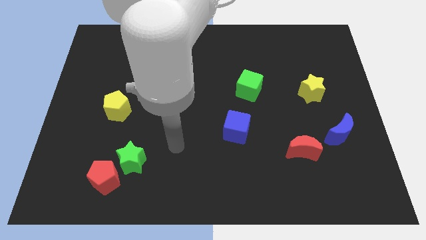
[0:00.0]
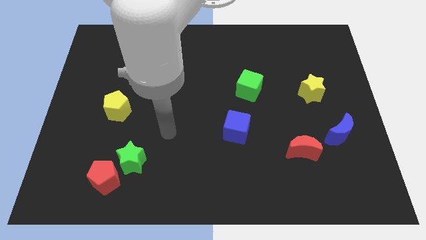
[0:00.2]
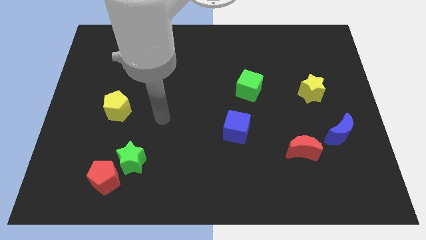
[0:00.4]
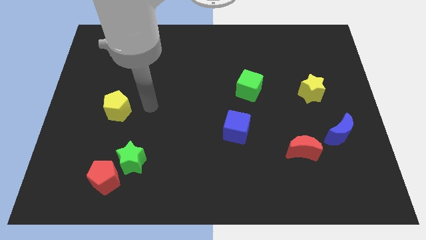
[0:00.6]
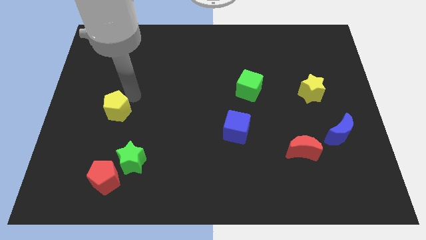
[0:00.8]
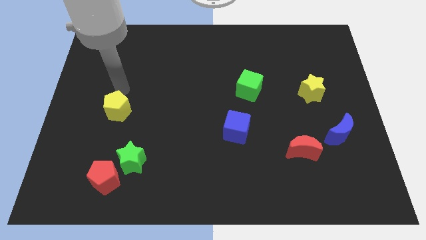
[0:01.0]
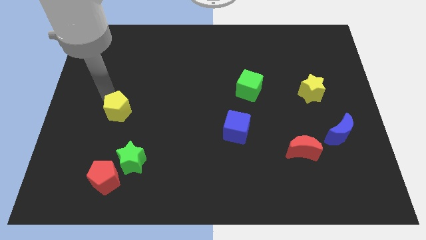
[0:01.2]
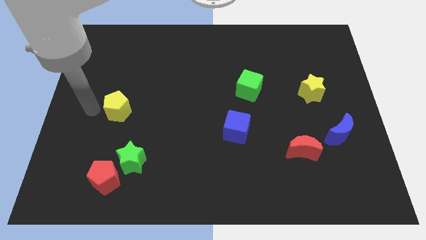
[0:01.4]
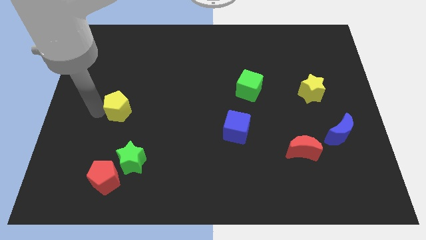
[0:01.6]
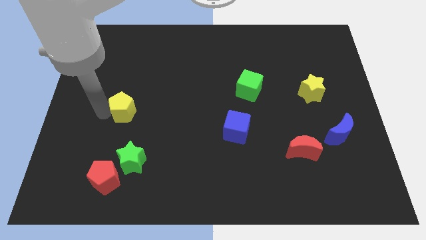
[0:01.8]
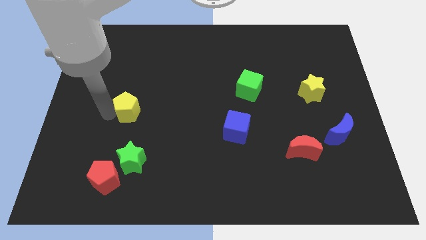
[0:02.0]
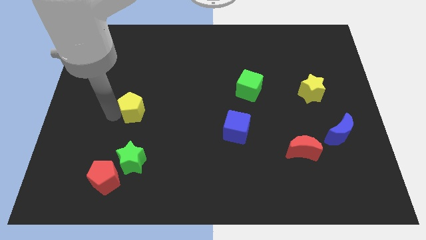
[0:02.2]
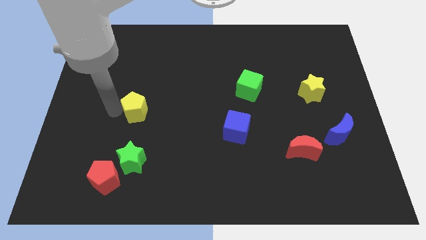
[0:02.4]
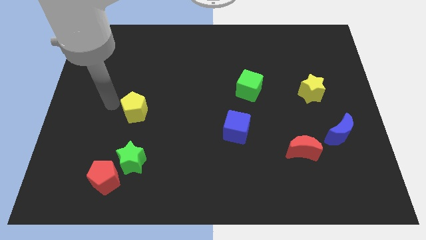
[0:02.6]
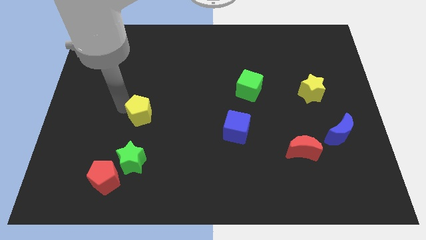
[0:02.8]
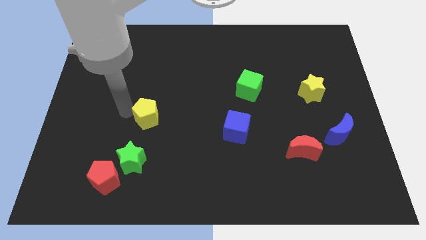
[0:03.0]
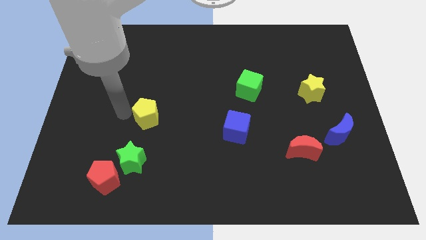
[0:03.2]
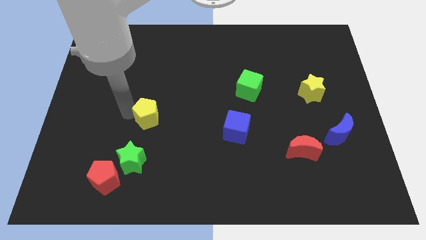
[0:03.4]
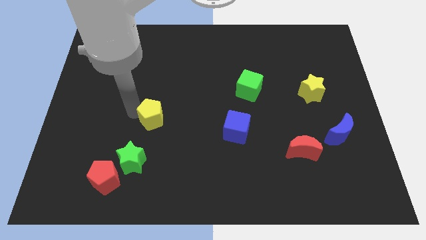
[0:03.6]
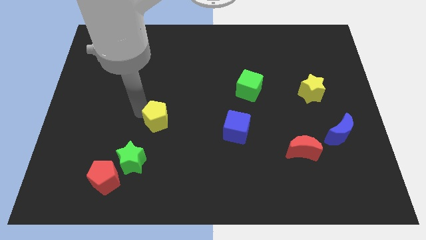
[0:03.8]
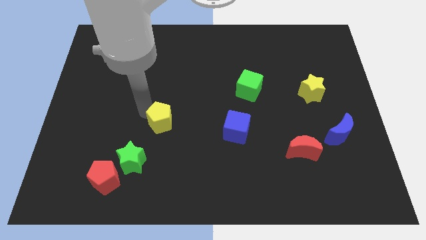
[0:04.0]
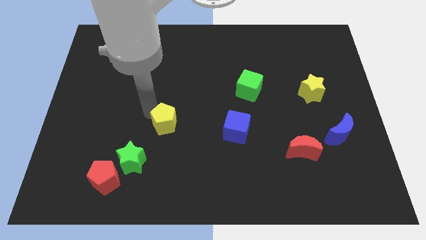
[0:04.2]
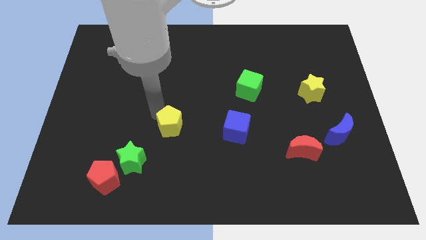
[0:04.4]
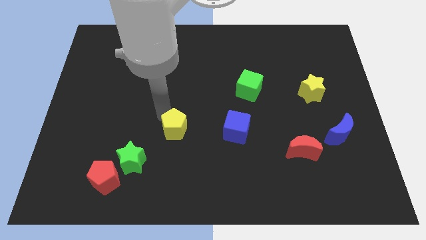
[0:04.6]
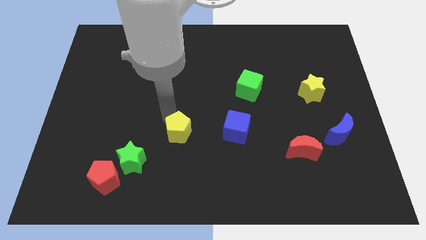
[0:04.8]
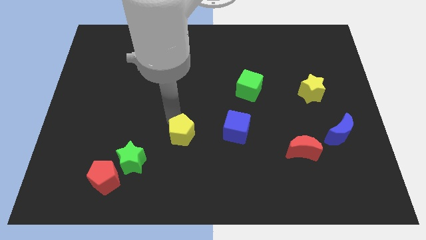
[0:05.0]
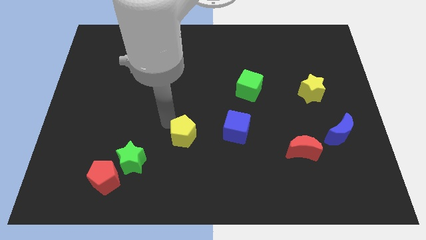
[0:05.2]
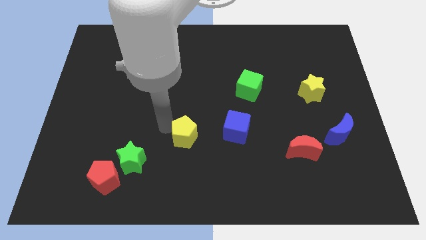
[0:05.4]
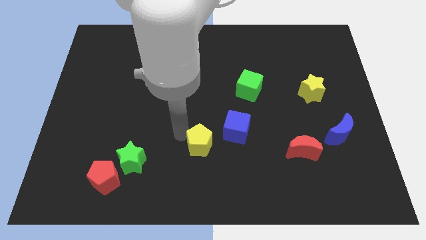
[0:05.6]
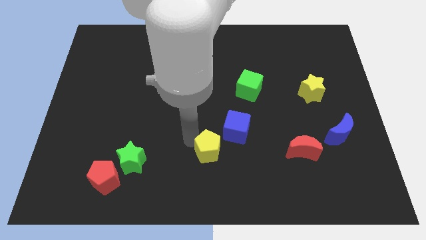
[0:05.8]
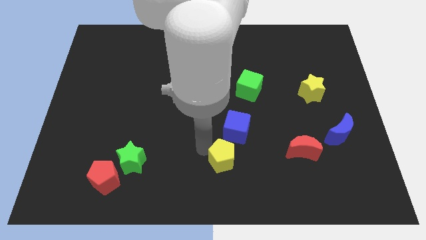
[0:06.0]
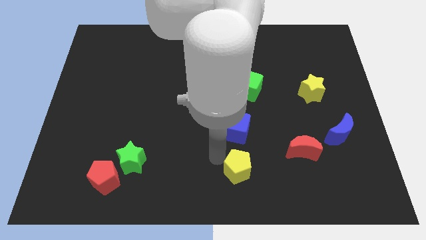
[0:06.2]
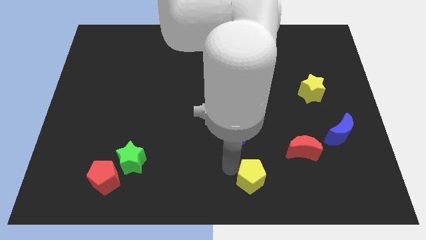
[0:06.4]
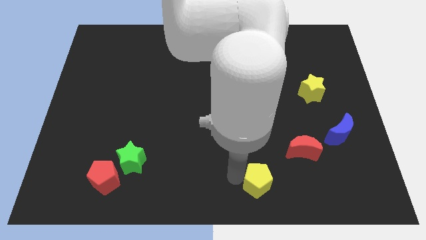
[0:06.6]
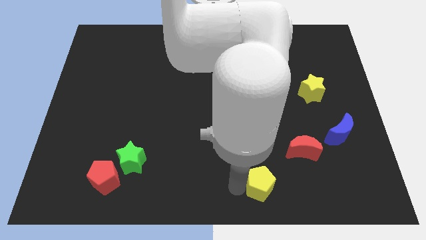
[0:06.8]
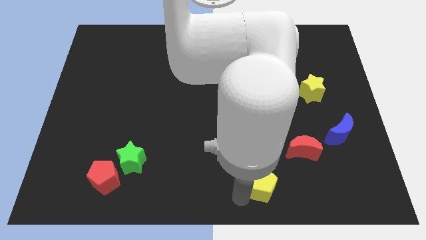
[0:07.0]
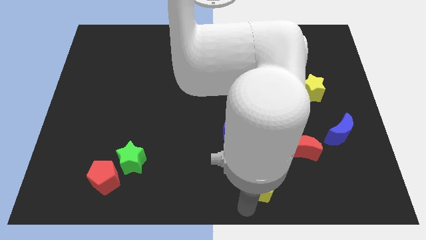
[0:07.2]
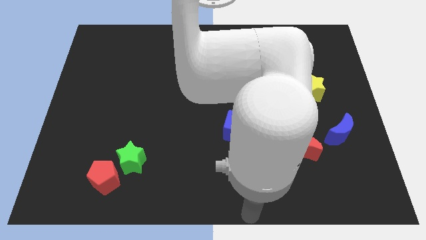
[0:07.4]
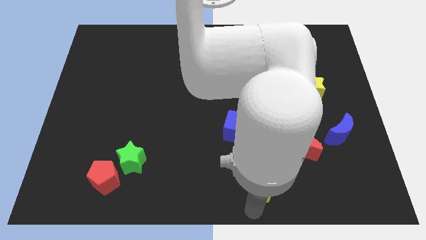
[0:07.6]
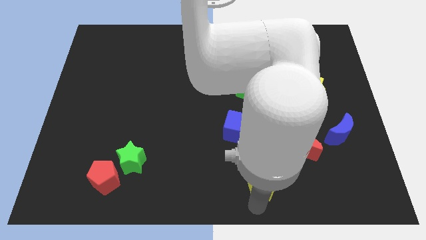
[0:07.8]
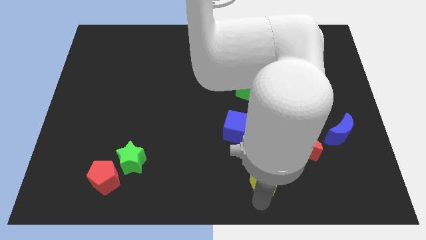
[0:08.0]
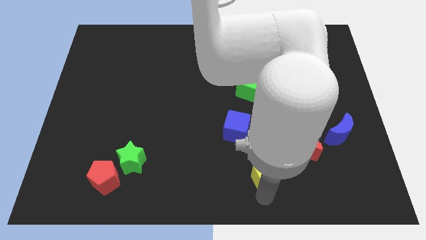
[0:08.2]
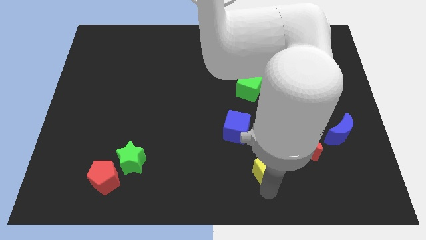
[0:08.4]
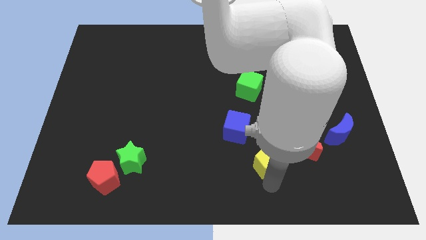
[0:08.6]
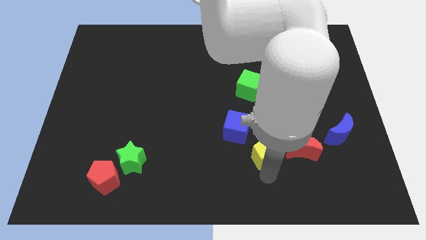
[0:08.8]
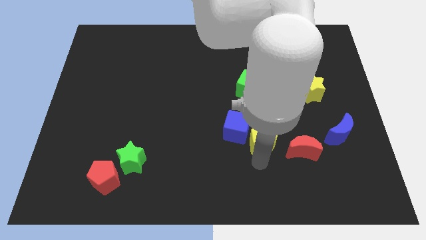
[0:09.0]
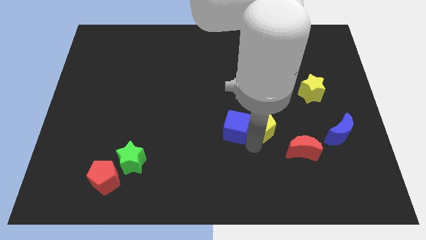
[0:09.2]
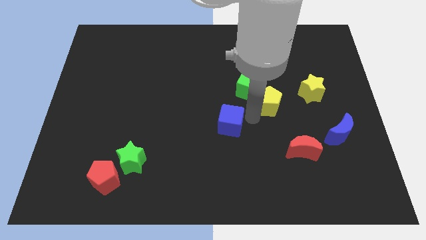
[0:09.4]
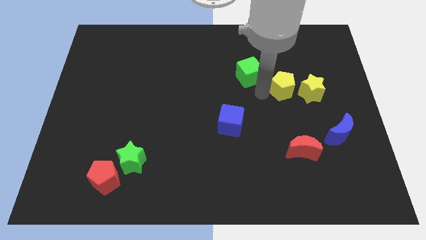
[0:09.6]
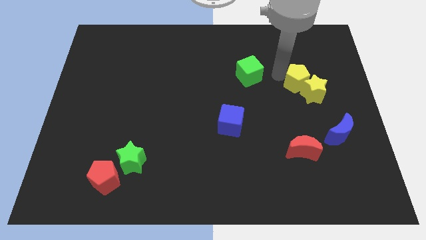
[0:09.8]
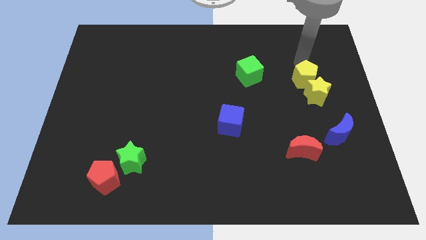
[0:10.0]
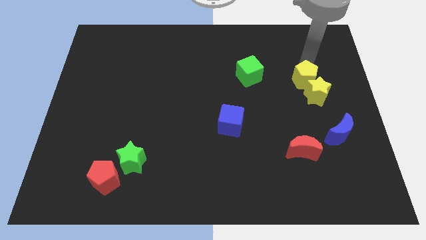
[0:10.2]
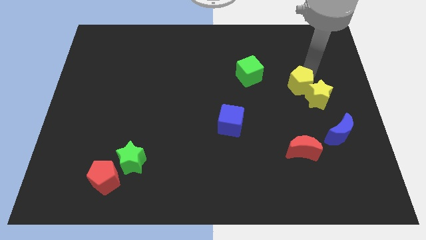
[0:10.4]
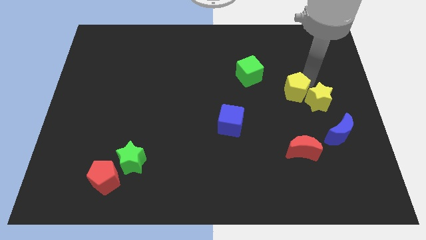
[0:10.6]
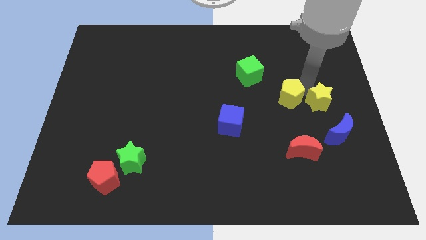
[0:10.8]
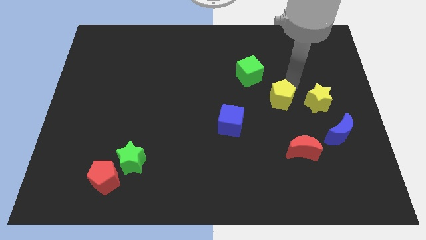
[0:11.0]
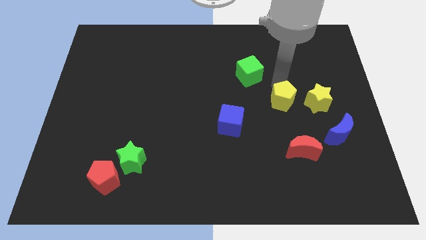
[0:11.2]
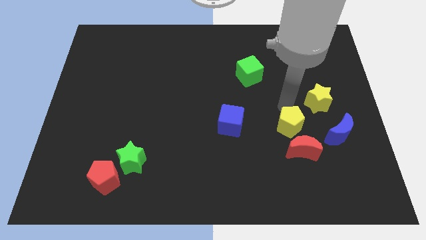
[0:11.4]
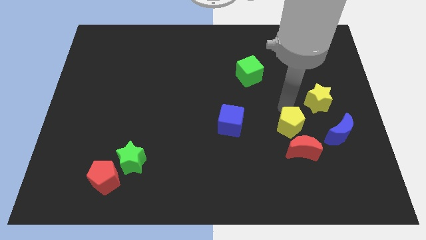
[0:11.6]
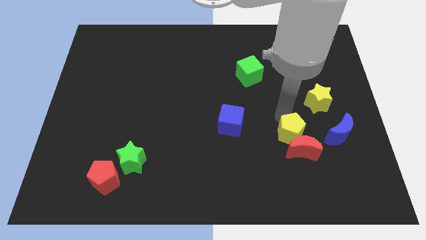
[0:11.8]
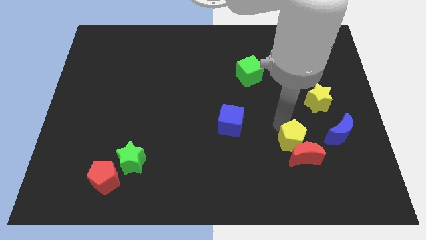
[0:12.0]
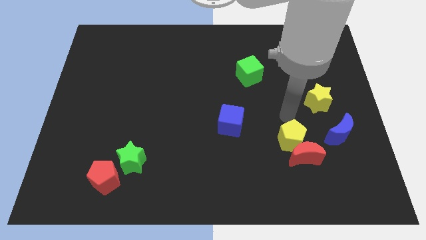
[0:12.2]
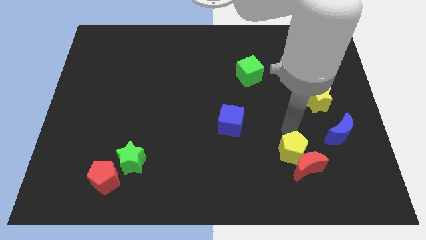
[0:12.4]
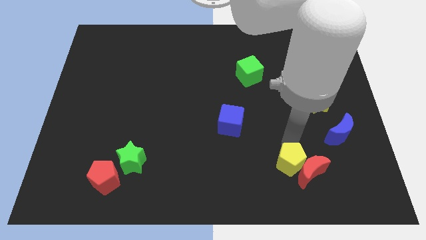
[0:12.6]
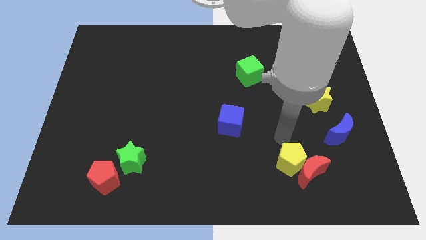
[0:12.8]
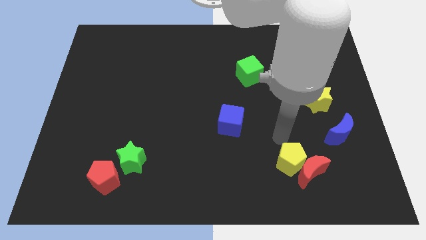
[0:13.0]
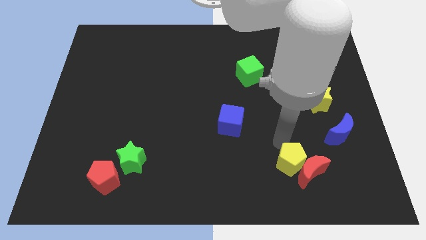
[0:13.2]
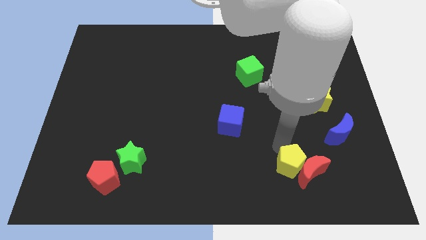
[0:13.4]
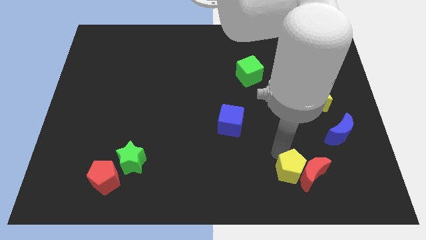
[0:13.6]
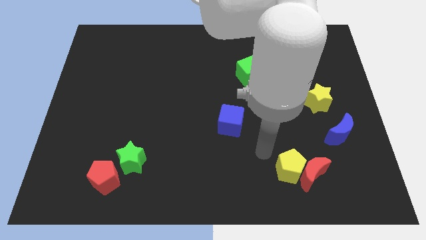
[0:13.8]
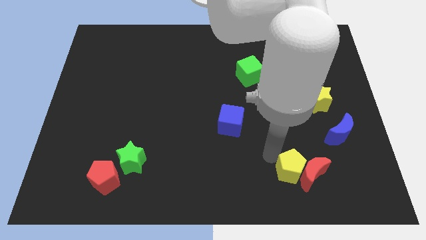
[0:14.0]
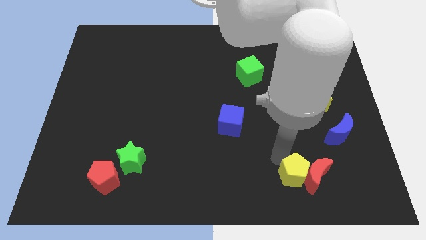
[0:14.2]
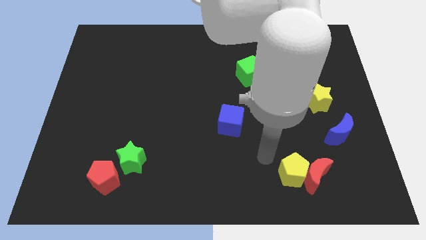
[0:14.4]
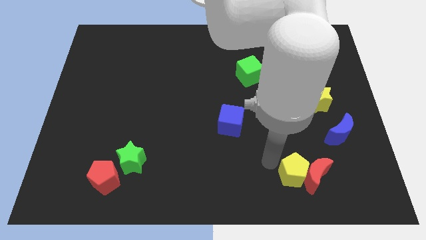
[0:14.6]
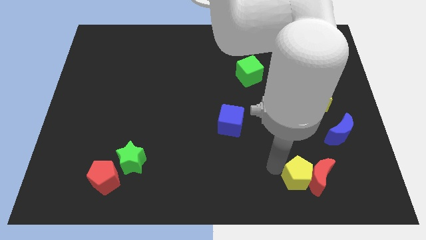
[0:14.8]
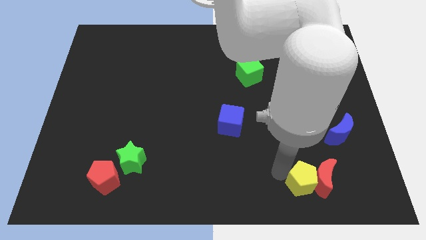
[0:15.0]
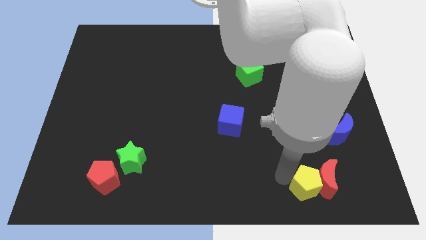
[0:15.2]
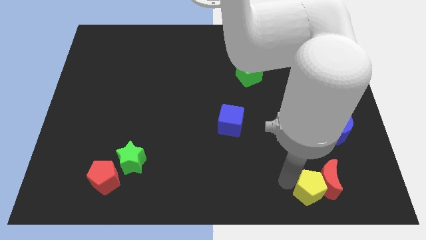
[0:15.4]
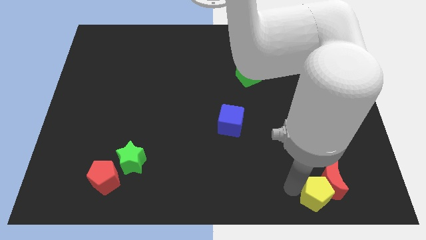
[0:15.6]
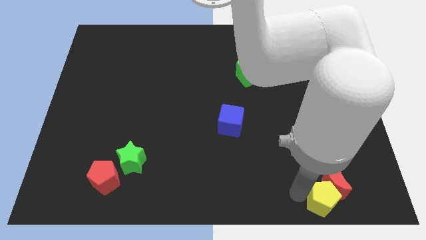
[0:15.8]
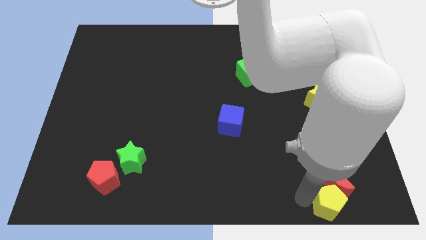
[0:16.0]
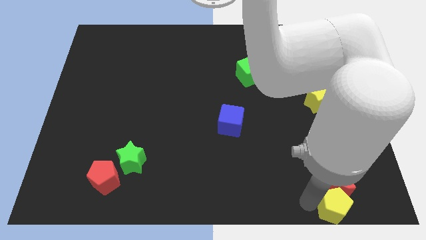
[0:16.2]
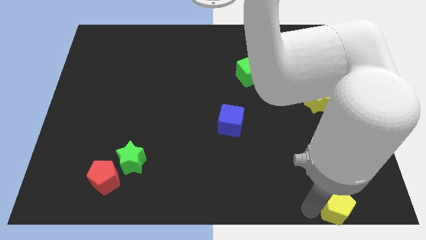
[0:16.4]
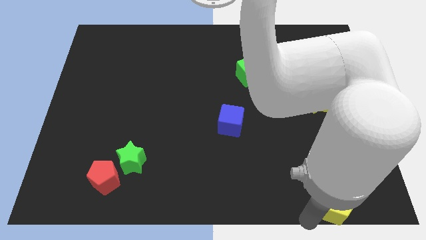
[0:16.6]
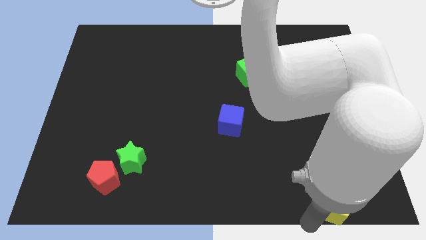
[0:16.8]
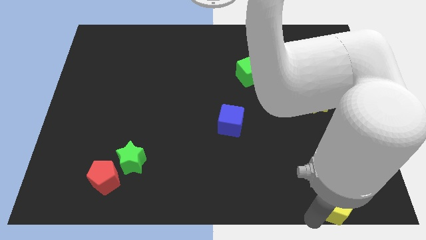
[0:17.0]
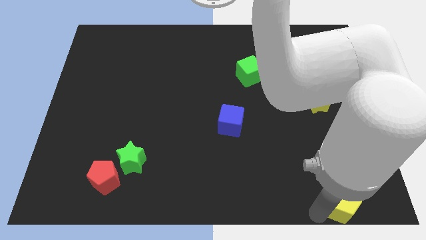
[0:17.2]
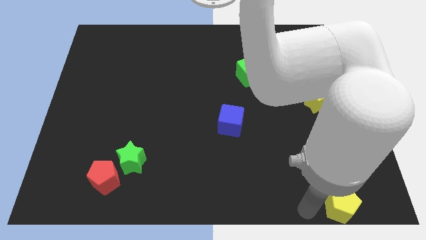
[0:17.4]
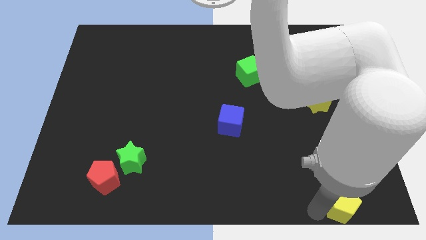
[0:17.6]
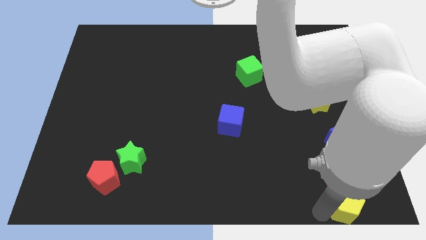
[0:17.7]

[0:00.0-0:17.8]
put the yellow pentagon to the bottom right
